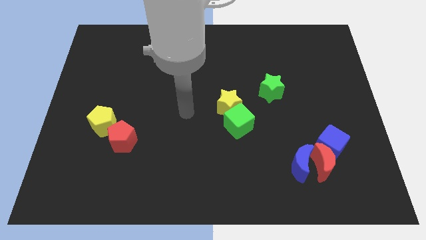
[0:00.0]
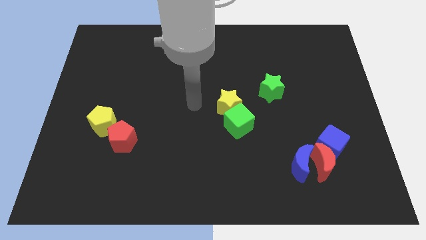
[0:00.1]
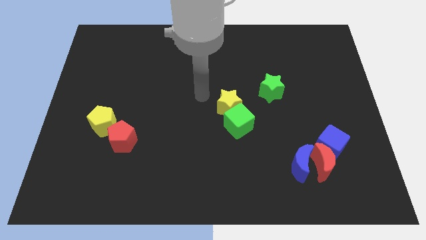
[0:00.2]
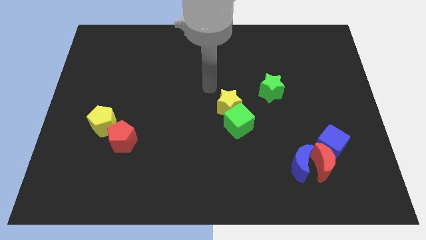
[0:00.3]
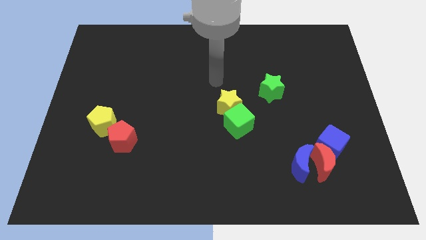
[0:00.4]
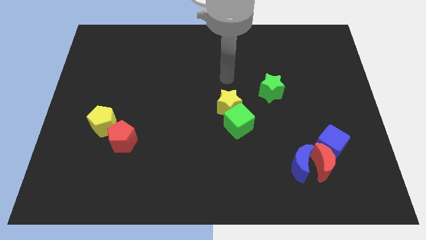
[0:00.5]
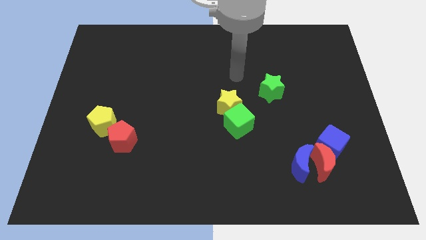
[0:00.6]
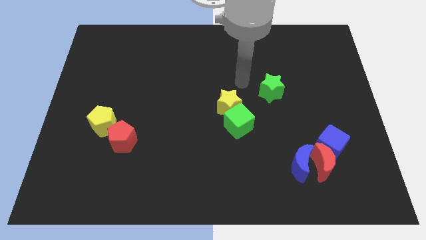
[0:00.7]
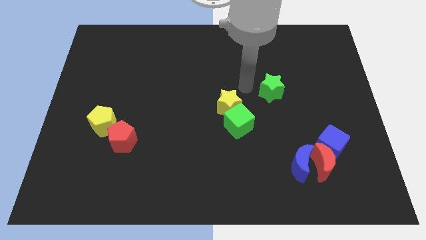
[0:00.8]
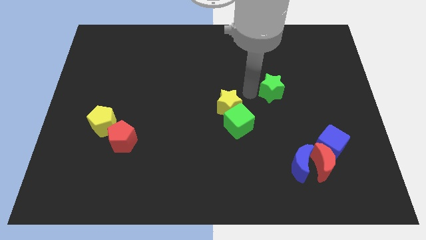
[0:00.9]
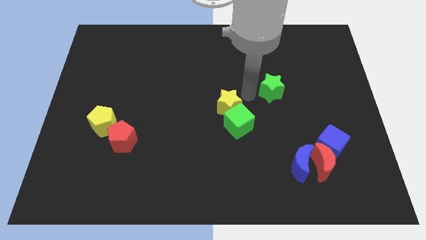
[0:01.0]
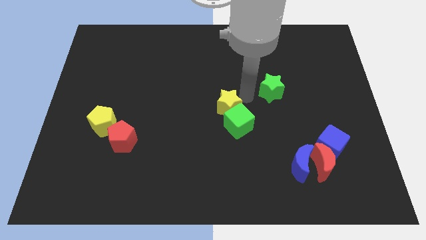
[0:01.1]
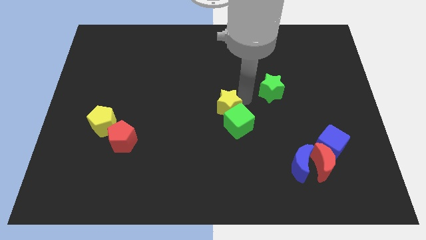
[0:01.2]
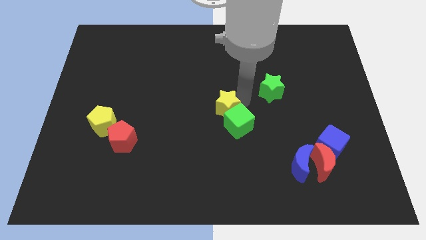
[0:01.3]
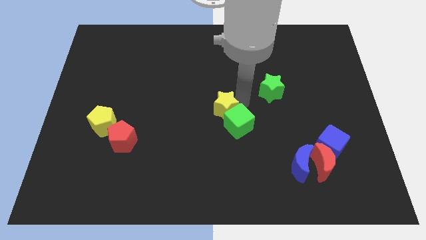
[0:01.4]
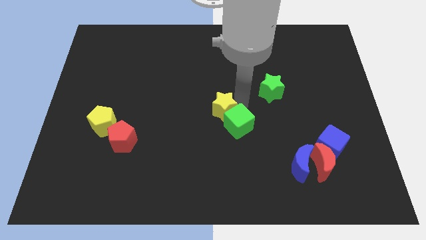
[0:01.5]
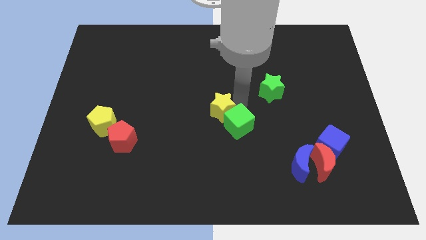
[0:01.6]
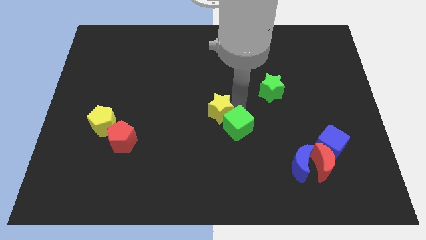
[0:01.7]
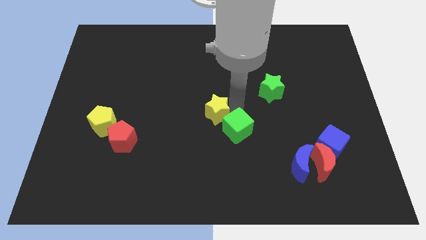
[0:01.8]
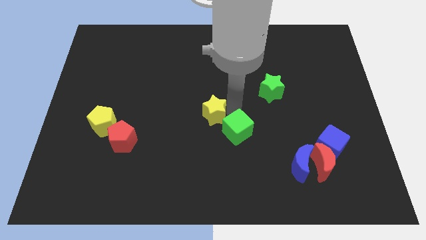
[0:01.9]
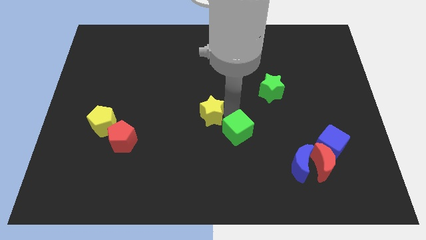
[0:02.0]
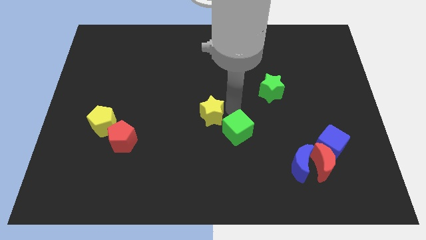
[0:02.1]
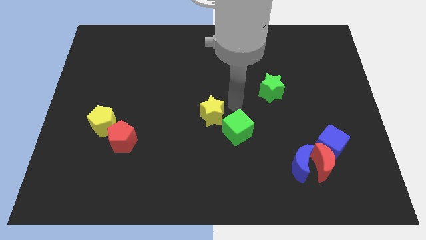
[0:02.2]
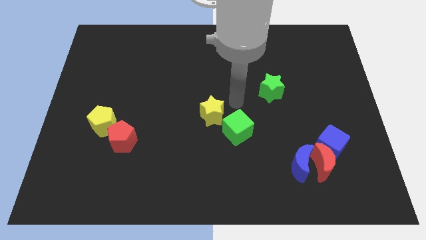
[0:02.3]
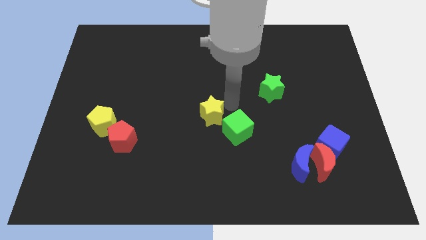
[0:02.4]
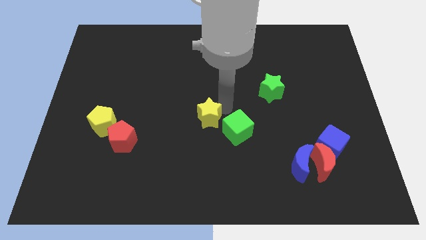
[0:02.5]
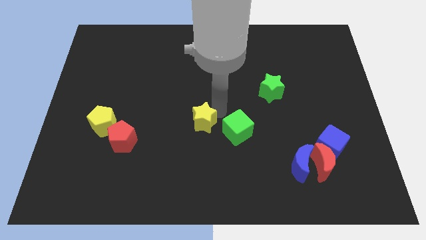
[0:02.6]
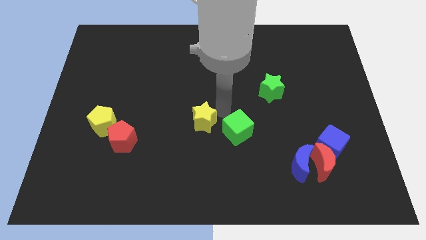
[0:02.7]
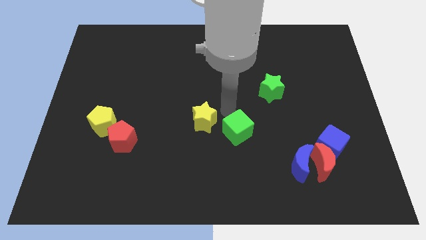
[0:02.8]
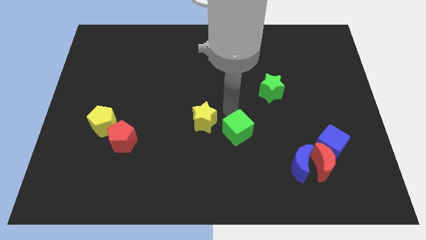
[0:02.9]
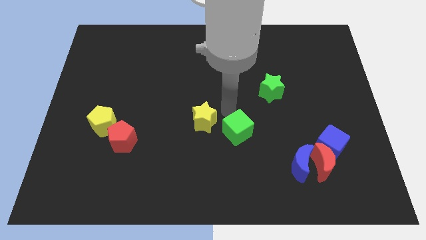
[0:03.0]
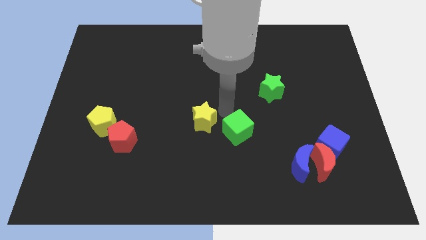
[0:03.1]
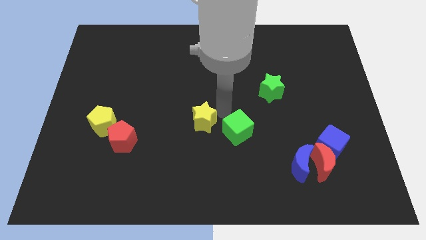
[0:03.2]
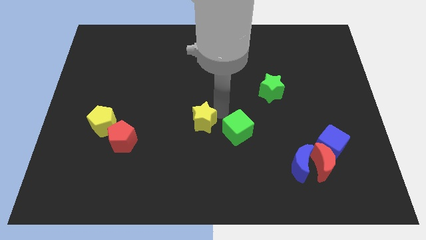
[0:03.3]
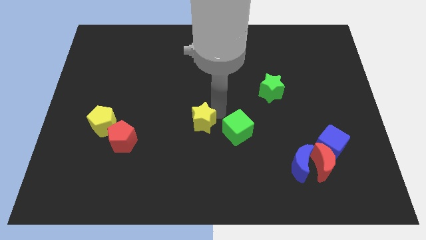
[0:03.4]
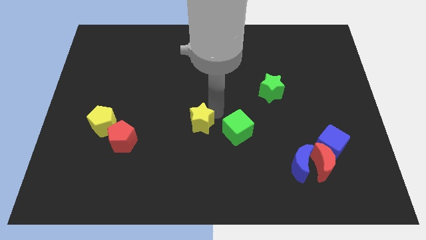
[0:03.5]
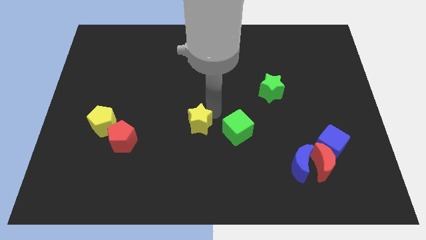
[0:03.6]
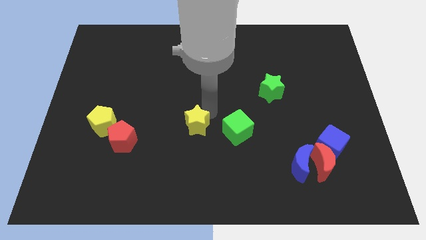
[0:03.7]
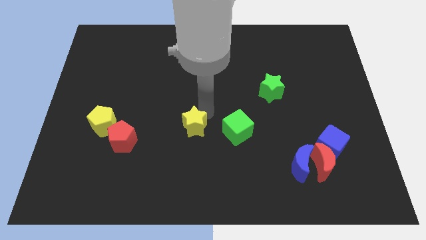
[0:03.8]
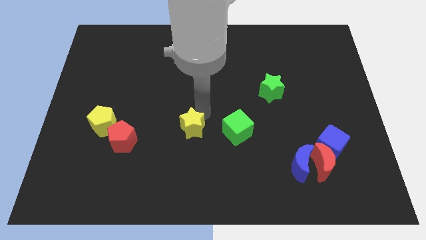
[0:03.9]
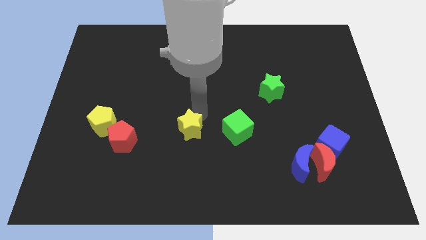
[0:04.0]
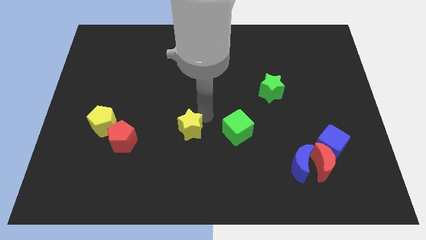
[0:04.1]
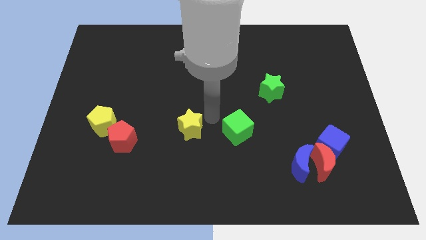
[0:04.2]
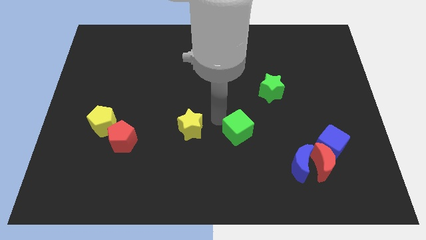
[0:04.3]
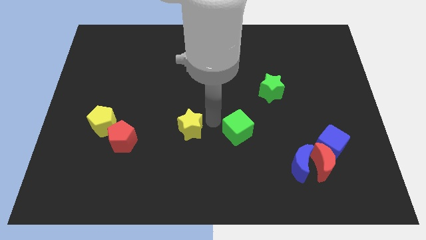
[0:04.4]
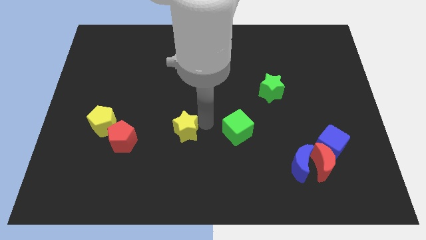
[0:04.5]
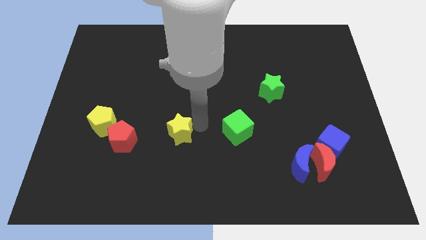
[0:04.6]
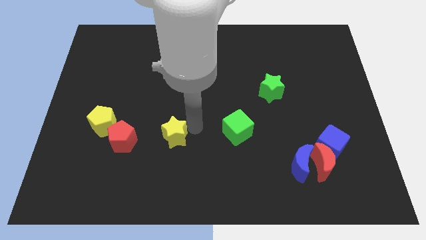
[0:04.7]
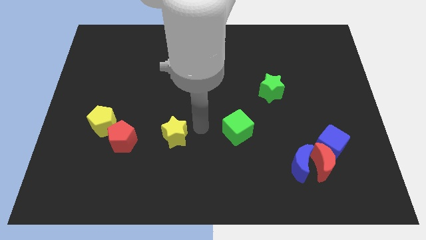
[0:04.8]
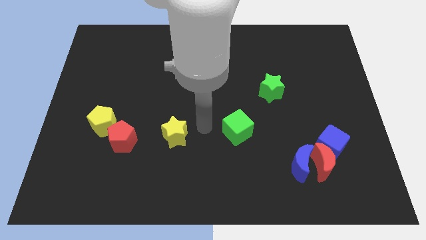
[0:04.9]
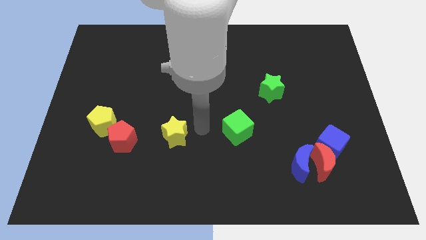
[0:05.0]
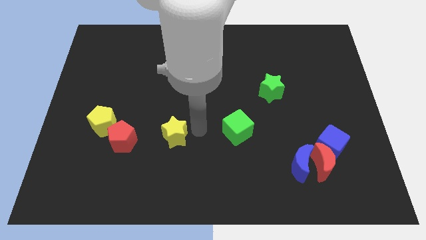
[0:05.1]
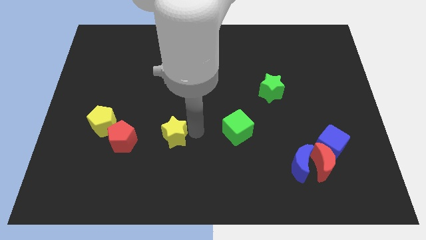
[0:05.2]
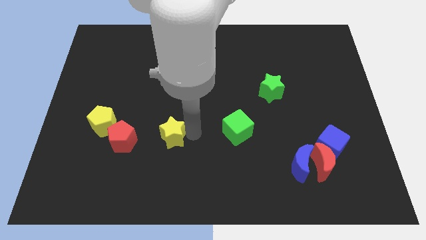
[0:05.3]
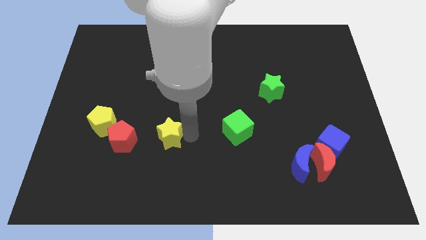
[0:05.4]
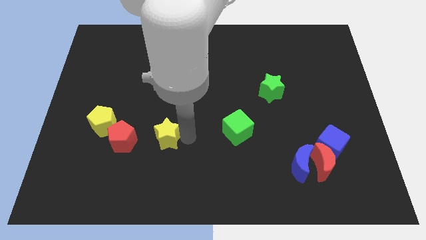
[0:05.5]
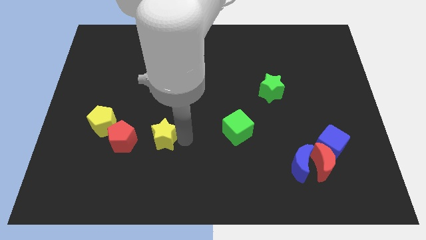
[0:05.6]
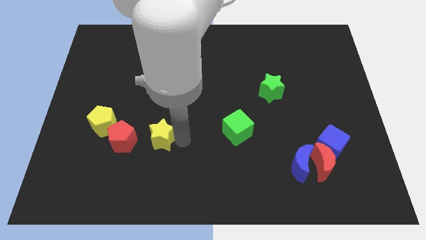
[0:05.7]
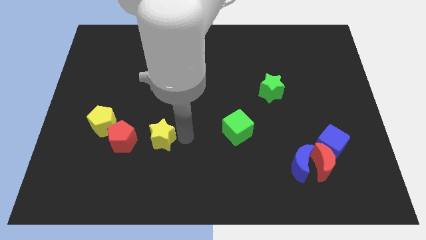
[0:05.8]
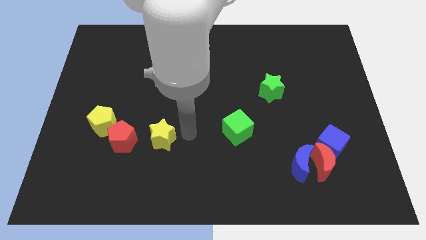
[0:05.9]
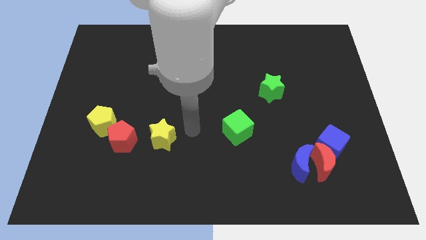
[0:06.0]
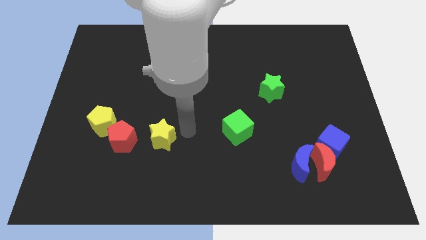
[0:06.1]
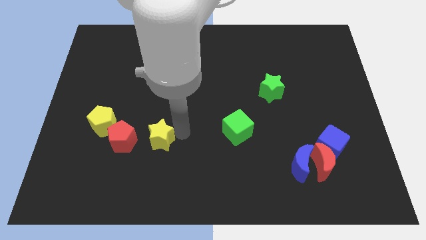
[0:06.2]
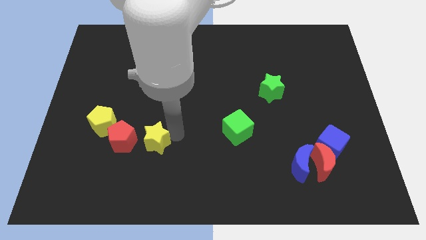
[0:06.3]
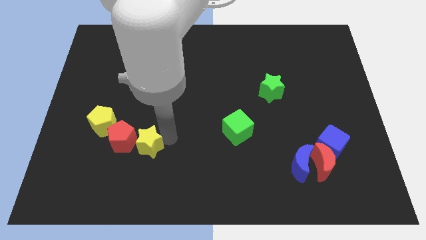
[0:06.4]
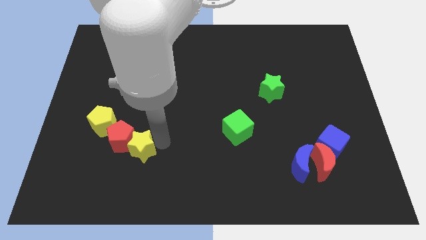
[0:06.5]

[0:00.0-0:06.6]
move the yellow star to the bottom right of the yellow pentagon
